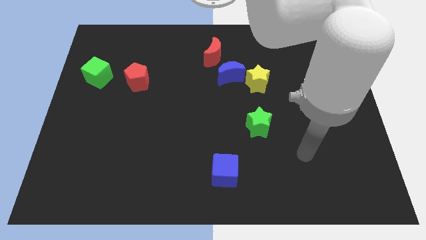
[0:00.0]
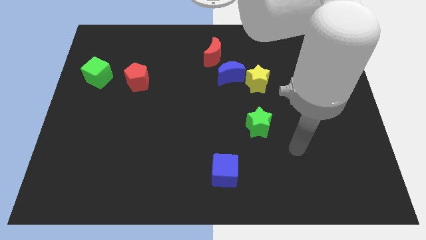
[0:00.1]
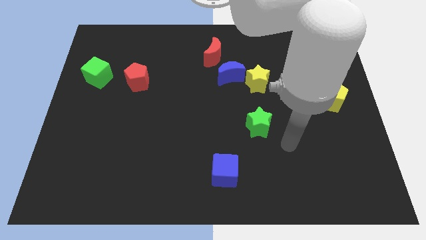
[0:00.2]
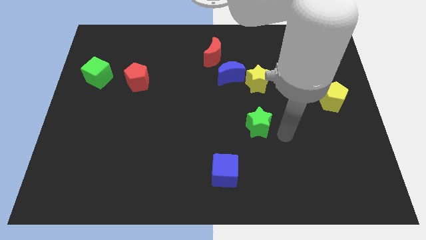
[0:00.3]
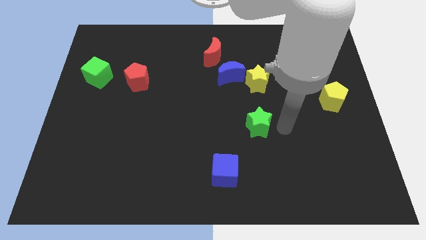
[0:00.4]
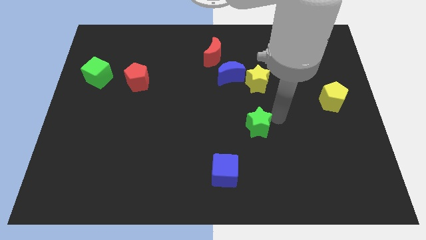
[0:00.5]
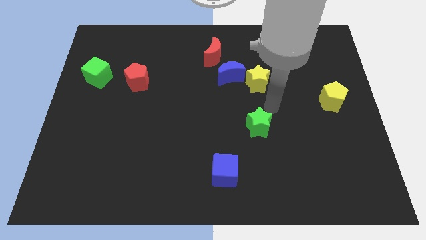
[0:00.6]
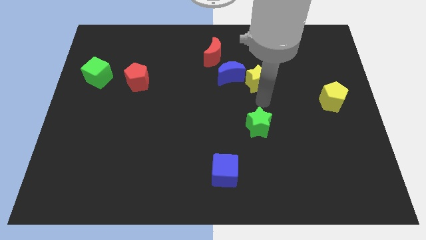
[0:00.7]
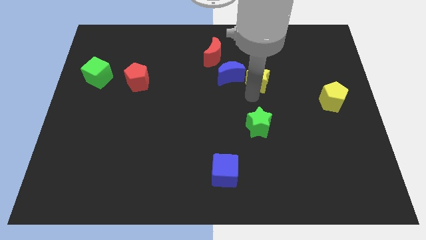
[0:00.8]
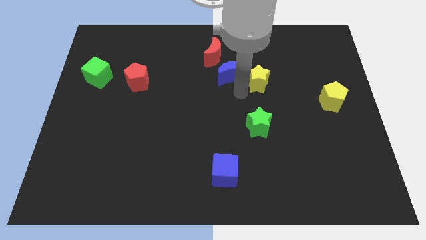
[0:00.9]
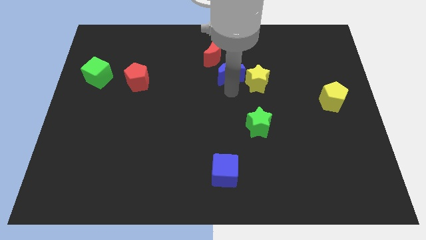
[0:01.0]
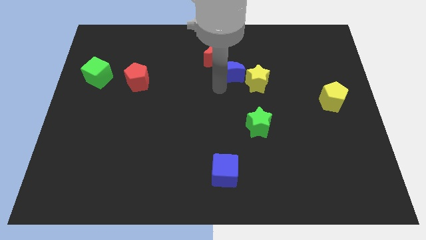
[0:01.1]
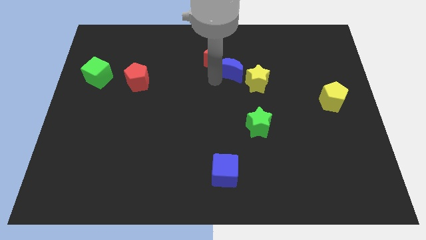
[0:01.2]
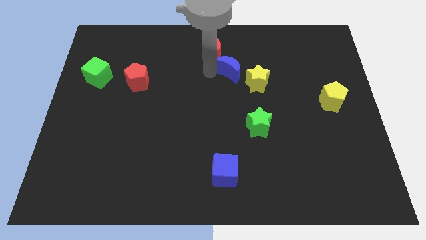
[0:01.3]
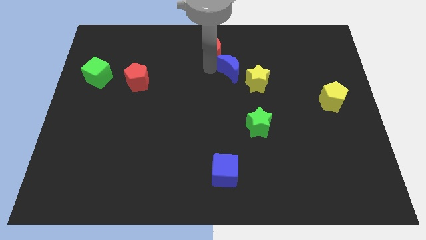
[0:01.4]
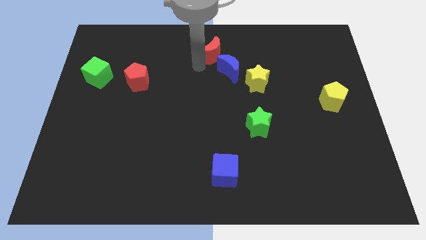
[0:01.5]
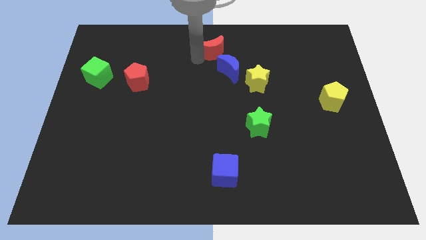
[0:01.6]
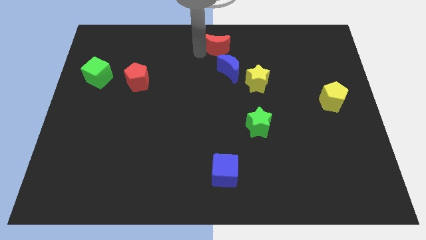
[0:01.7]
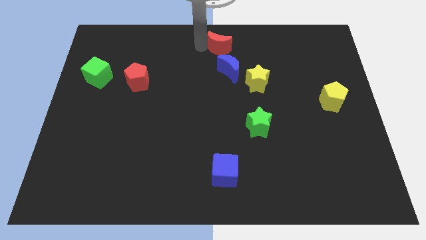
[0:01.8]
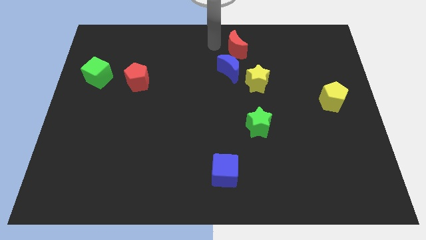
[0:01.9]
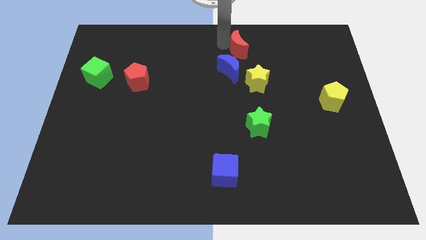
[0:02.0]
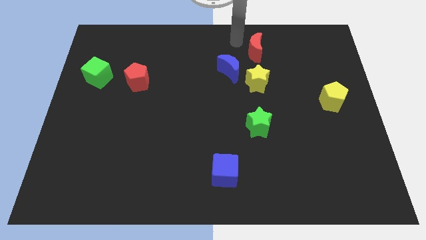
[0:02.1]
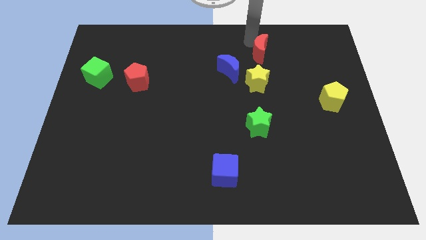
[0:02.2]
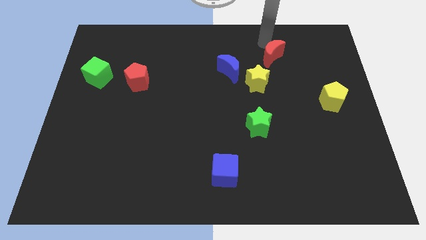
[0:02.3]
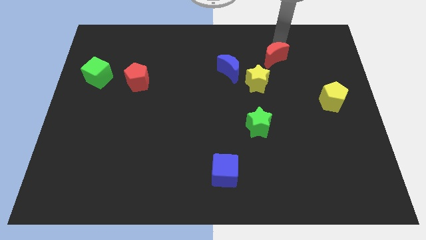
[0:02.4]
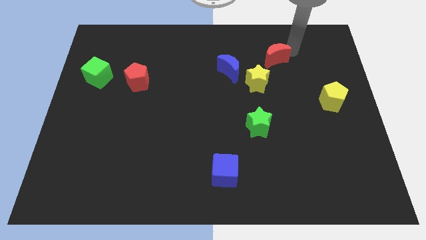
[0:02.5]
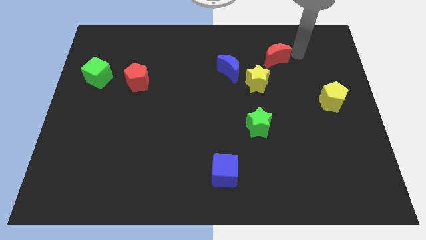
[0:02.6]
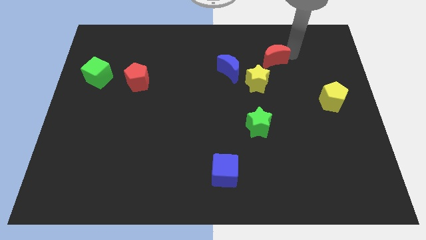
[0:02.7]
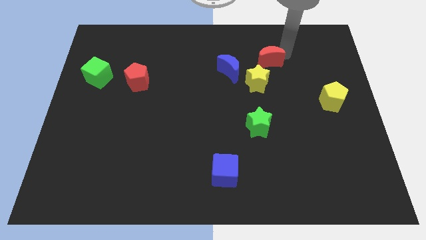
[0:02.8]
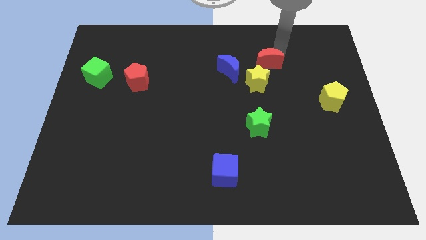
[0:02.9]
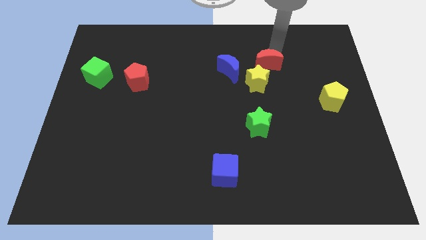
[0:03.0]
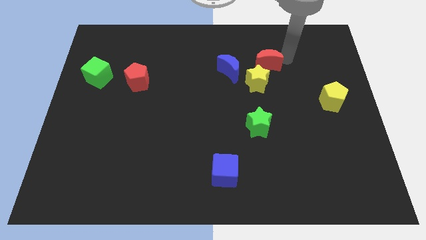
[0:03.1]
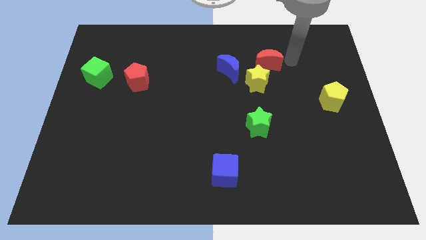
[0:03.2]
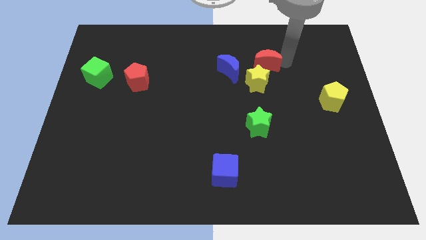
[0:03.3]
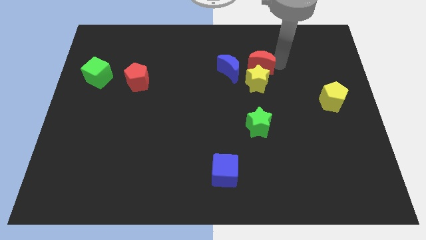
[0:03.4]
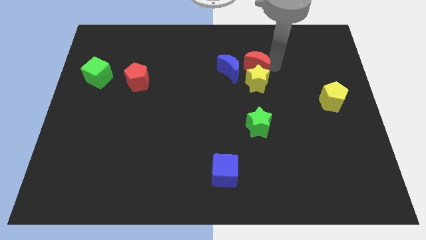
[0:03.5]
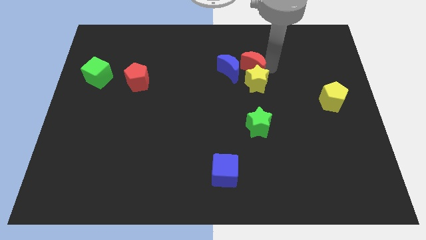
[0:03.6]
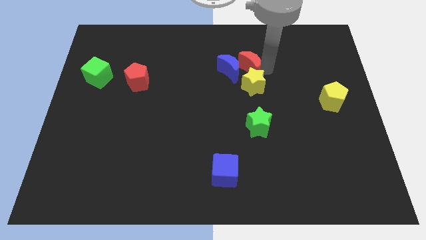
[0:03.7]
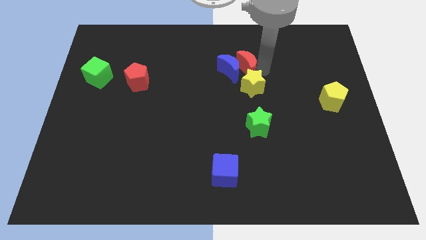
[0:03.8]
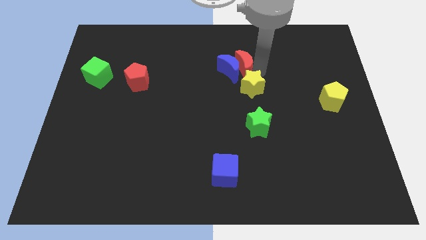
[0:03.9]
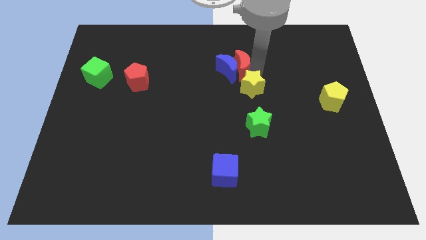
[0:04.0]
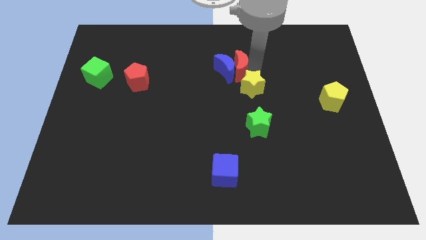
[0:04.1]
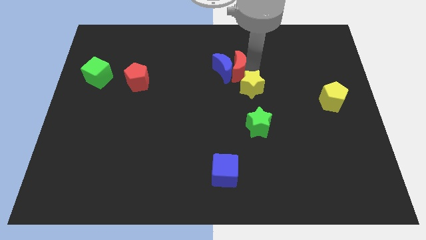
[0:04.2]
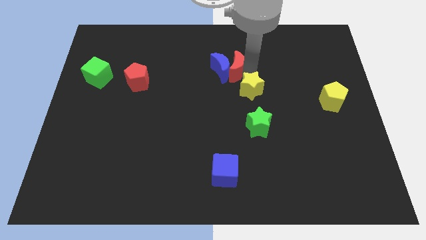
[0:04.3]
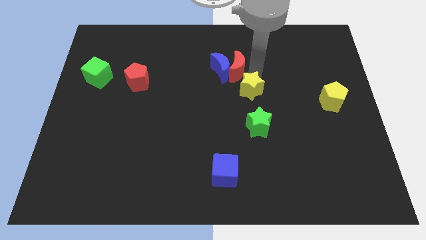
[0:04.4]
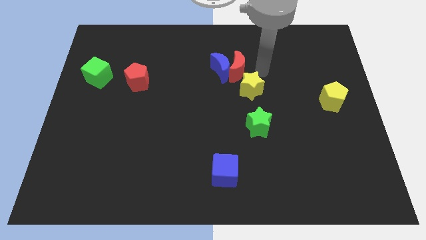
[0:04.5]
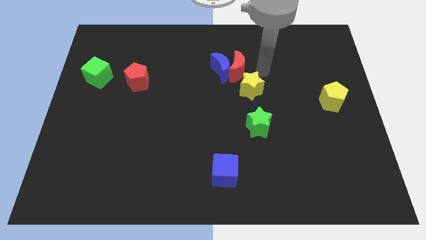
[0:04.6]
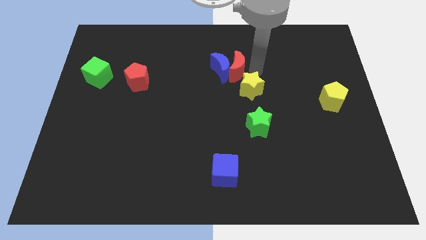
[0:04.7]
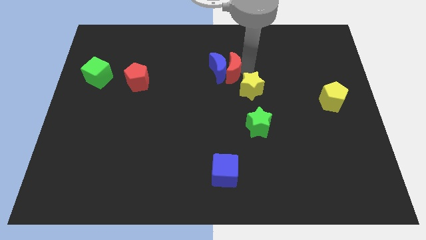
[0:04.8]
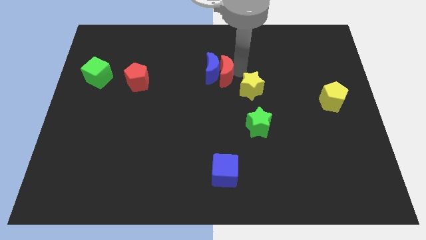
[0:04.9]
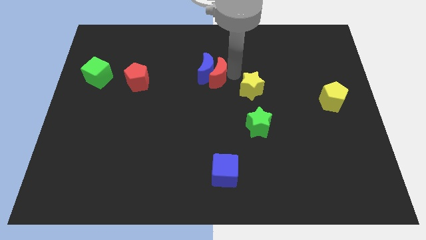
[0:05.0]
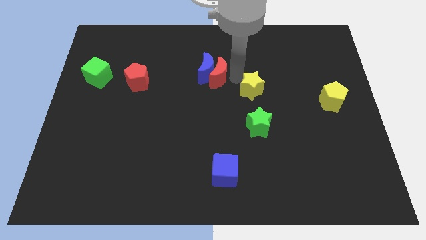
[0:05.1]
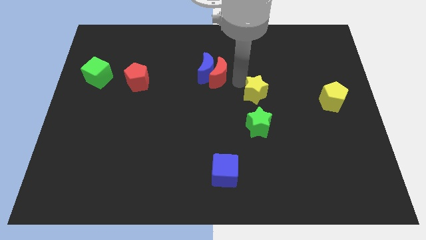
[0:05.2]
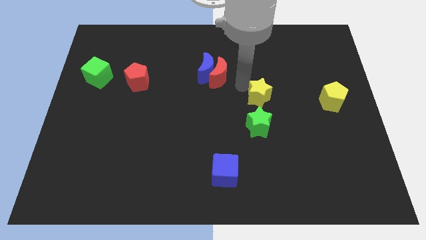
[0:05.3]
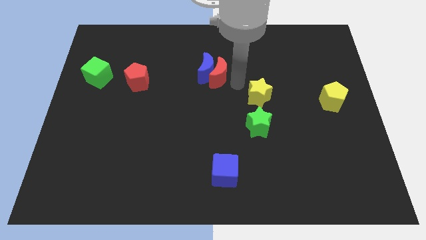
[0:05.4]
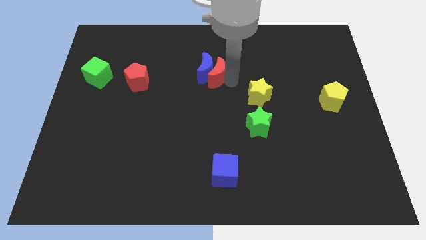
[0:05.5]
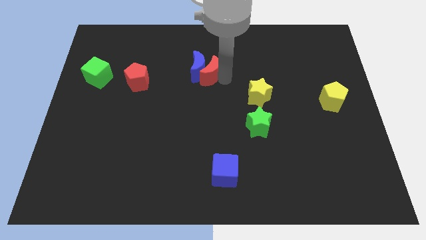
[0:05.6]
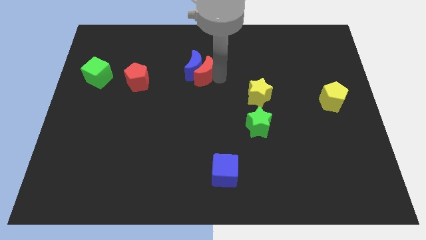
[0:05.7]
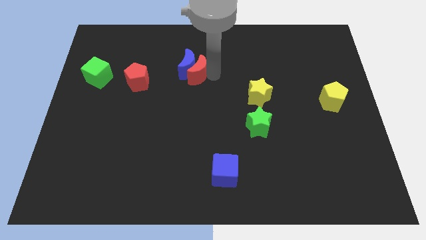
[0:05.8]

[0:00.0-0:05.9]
slightly slide the red moon down and left diagonally

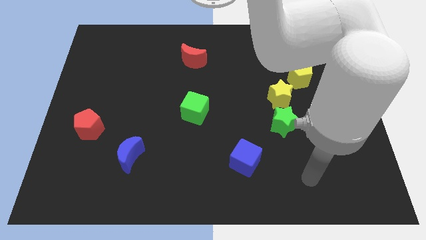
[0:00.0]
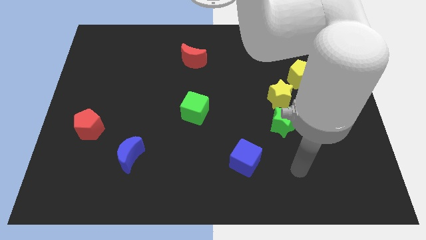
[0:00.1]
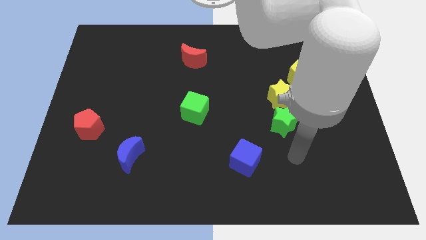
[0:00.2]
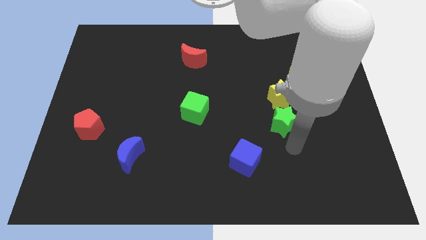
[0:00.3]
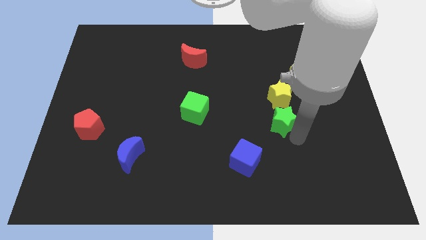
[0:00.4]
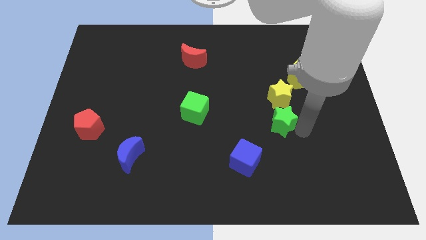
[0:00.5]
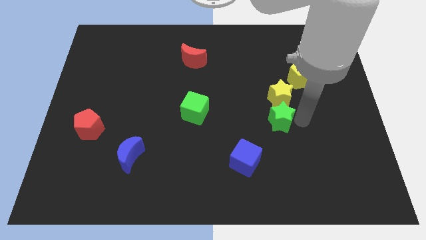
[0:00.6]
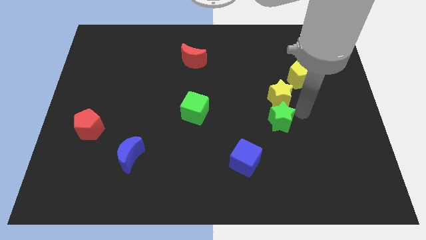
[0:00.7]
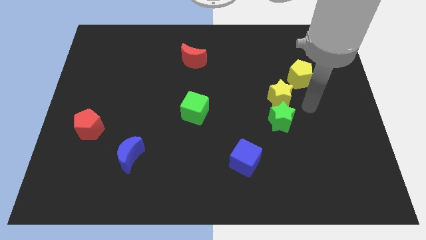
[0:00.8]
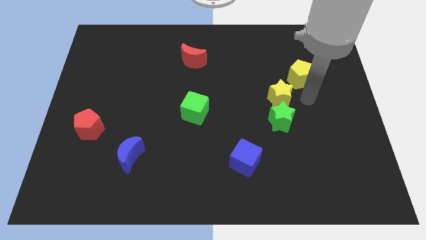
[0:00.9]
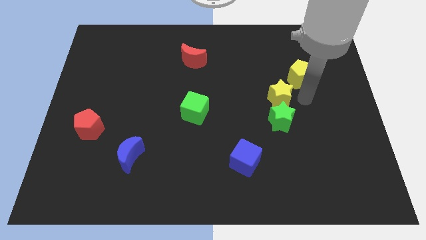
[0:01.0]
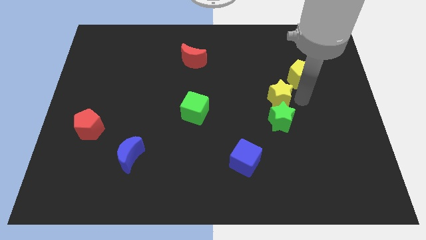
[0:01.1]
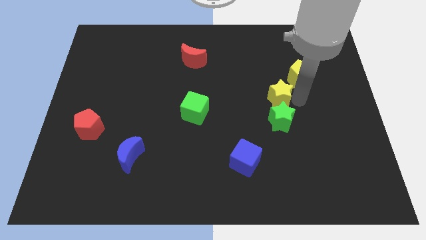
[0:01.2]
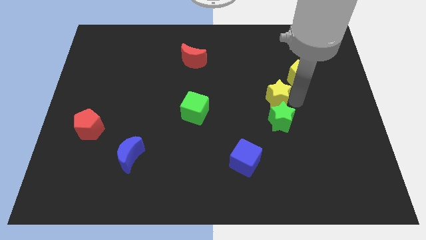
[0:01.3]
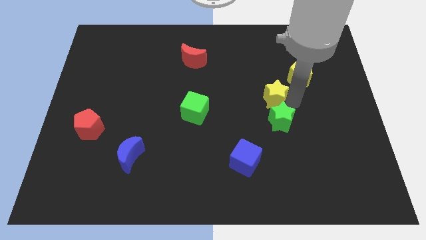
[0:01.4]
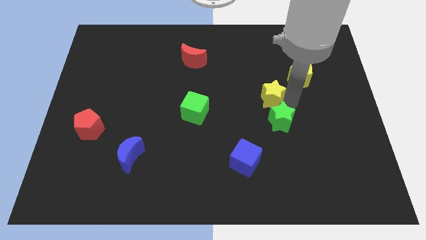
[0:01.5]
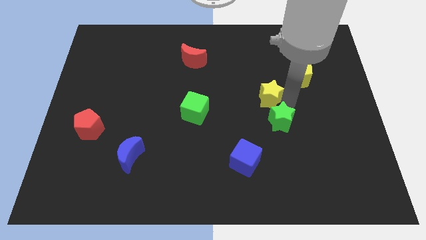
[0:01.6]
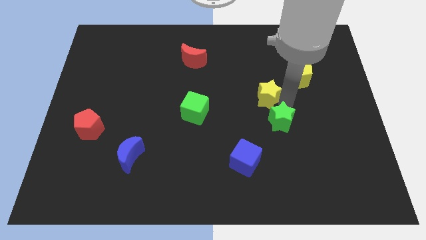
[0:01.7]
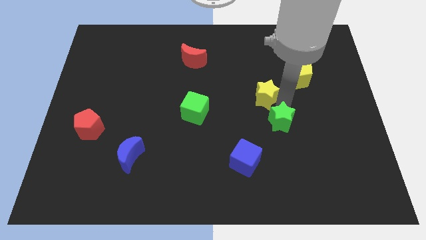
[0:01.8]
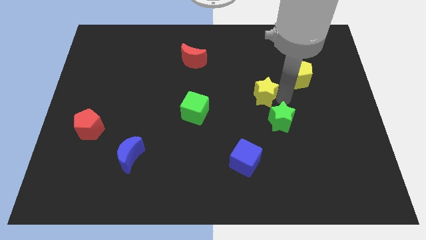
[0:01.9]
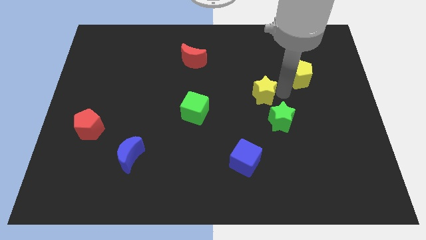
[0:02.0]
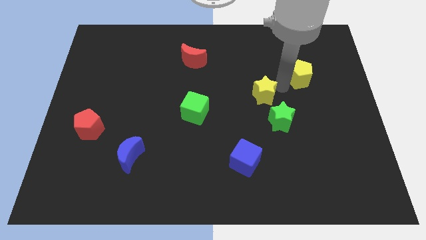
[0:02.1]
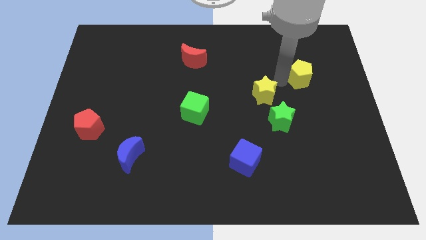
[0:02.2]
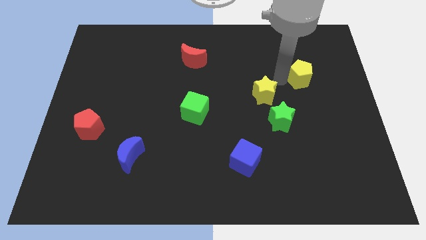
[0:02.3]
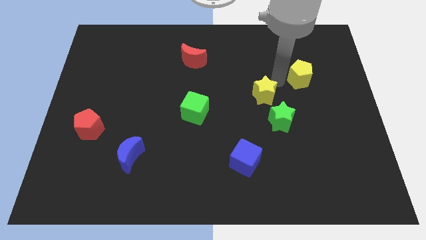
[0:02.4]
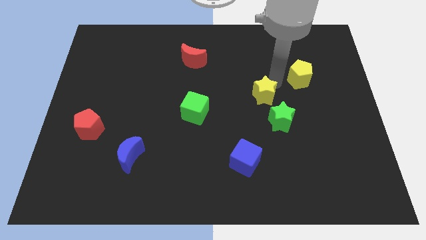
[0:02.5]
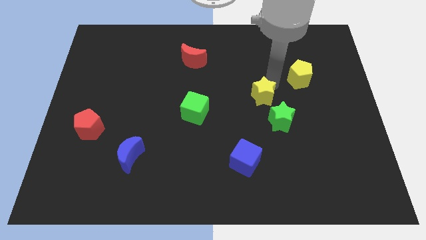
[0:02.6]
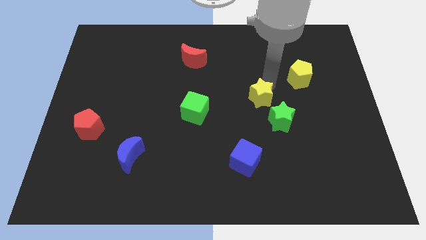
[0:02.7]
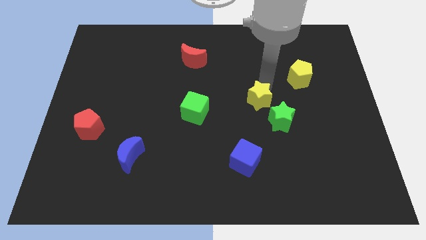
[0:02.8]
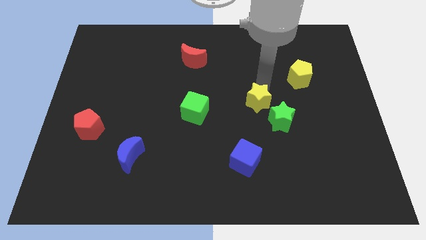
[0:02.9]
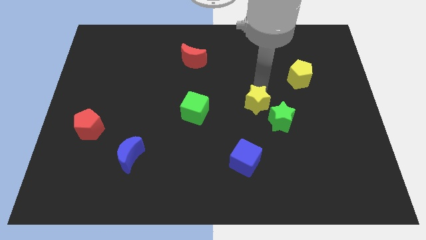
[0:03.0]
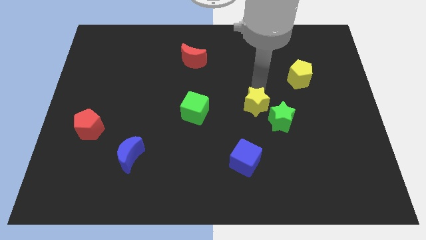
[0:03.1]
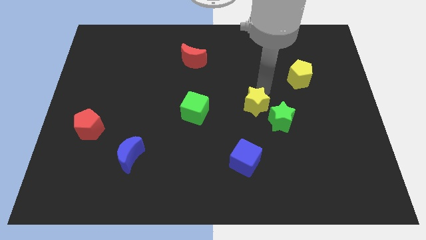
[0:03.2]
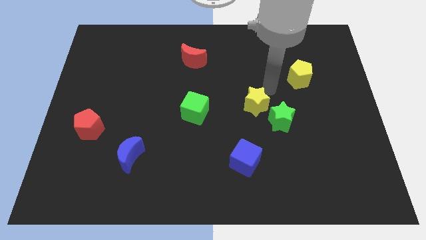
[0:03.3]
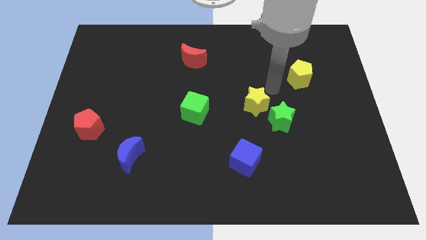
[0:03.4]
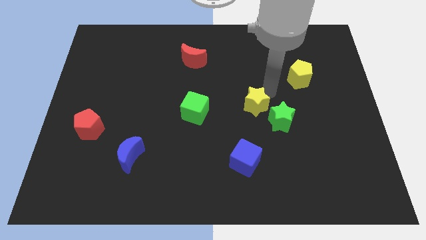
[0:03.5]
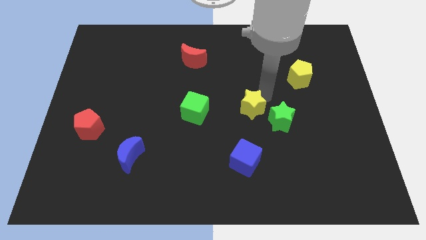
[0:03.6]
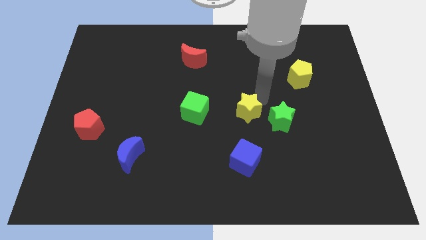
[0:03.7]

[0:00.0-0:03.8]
push the yellow star down and then to the left a little
